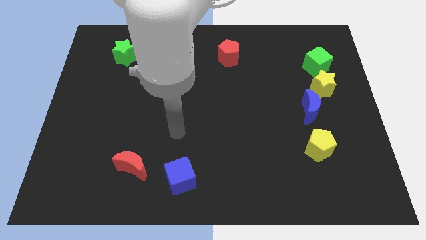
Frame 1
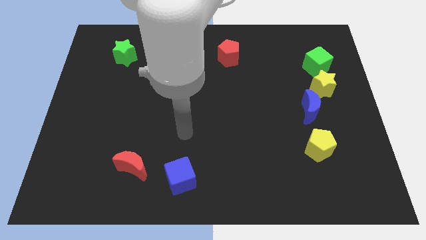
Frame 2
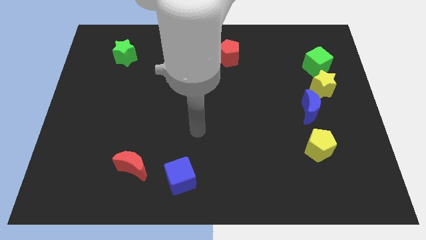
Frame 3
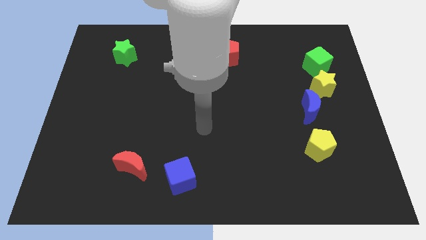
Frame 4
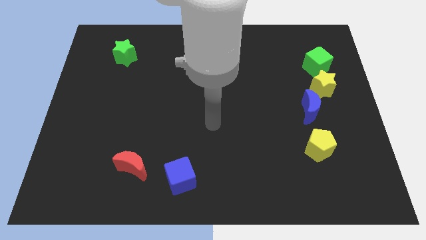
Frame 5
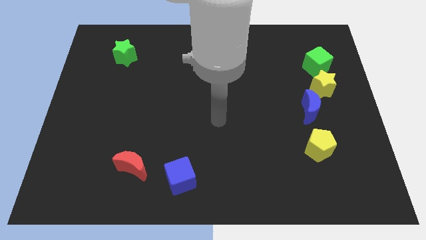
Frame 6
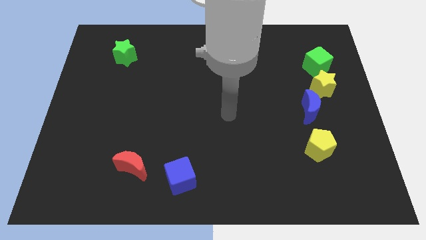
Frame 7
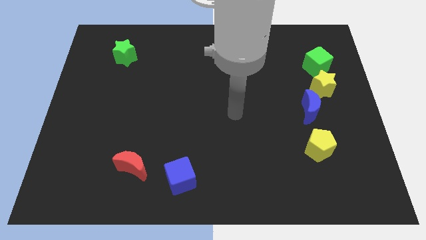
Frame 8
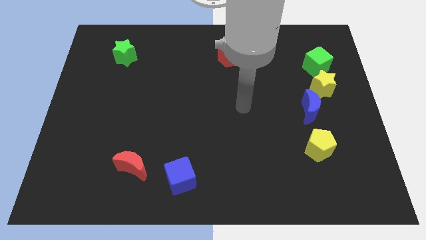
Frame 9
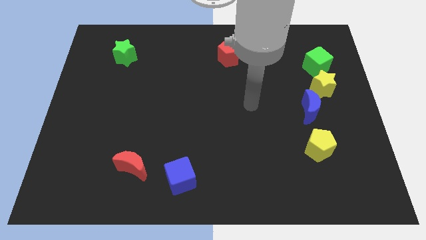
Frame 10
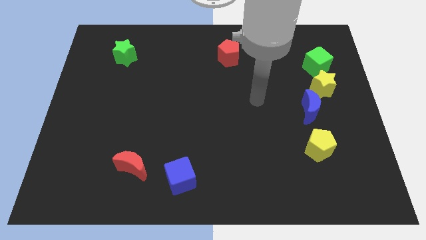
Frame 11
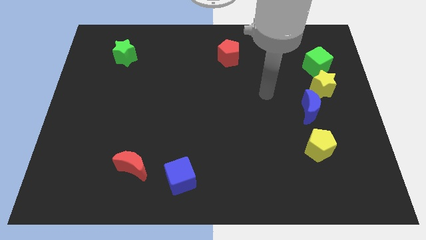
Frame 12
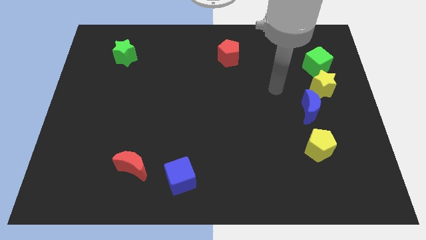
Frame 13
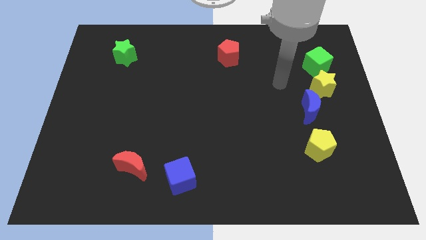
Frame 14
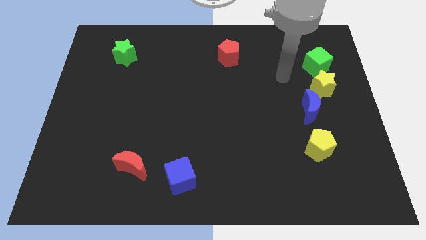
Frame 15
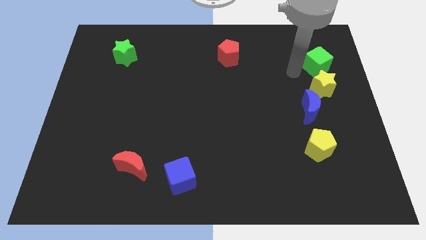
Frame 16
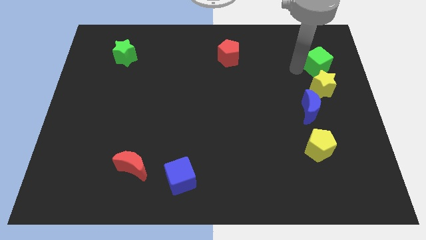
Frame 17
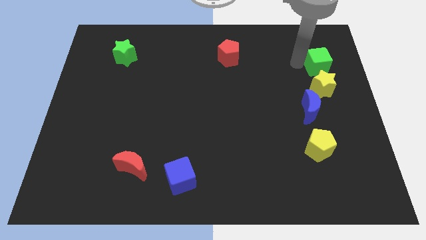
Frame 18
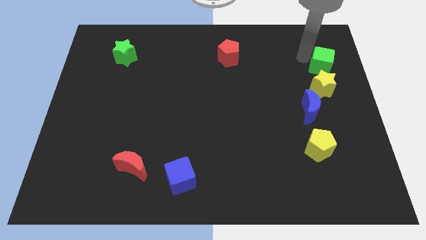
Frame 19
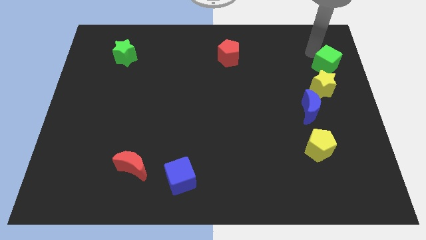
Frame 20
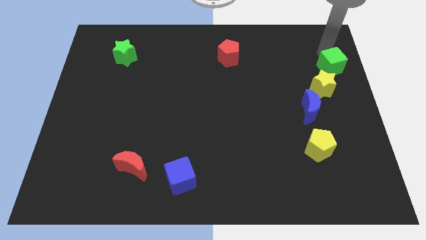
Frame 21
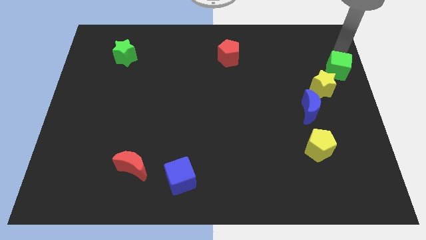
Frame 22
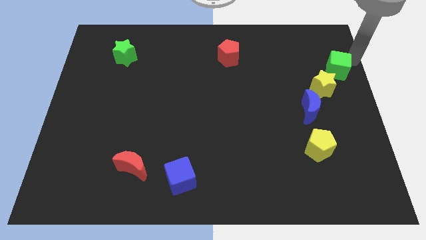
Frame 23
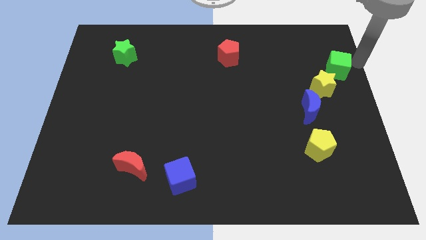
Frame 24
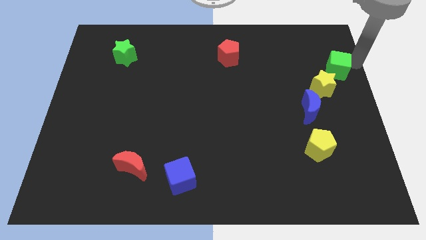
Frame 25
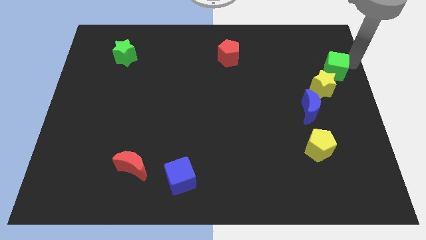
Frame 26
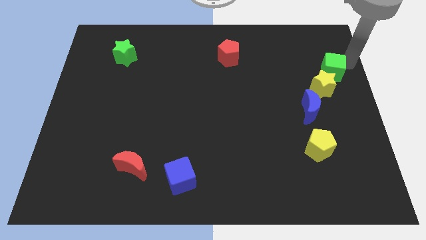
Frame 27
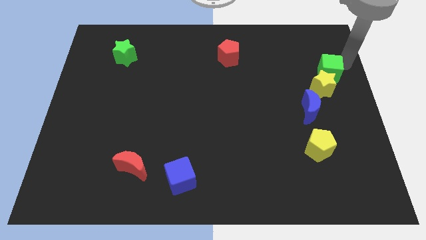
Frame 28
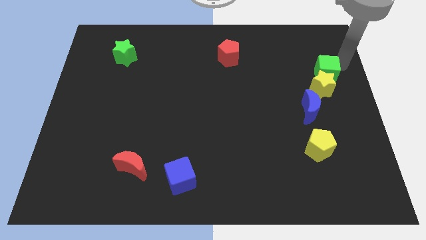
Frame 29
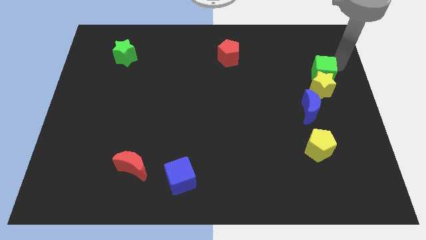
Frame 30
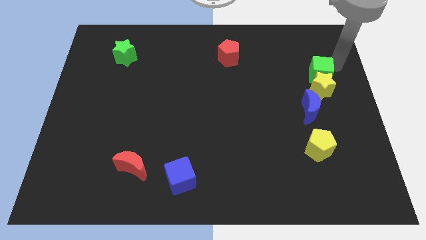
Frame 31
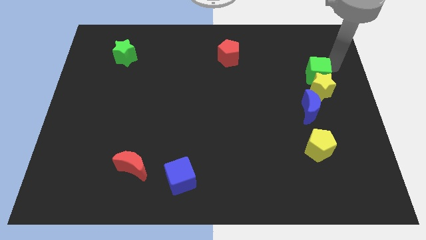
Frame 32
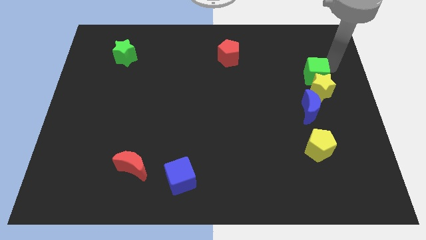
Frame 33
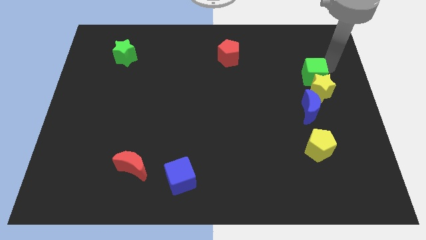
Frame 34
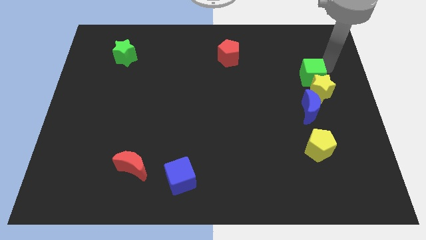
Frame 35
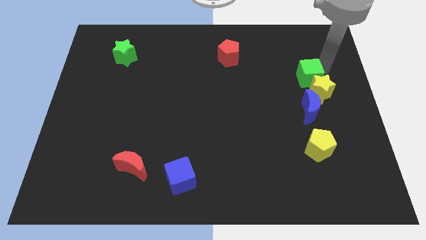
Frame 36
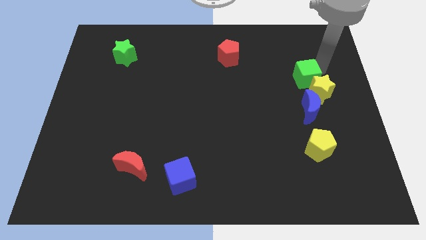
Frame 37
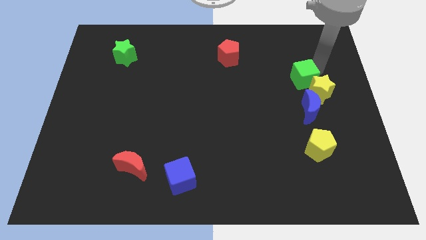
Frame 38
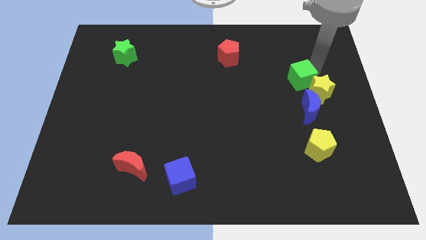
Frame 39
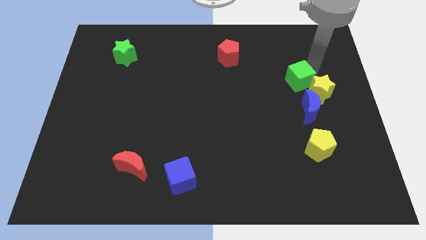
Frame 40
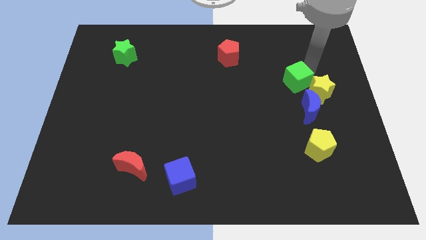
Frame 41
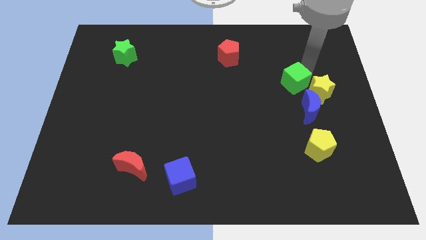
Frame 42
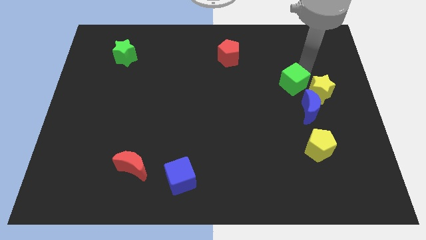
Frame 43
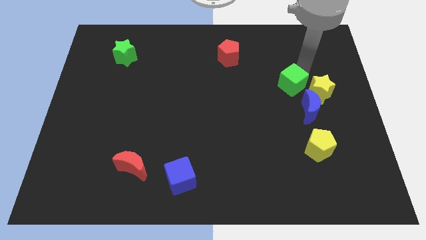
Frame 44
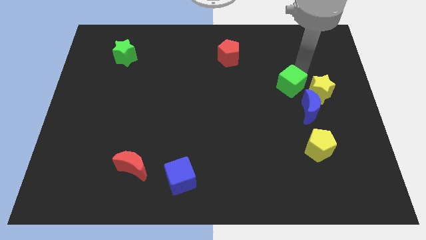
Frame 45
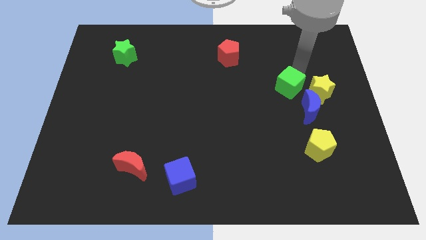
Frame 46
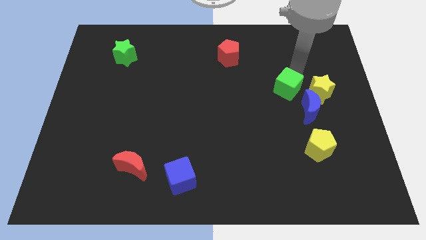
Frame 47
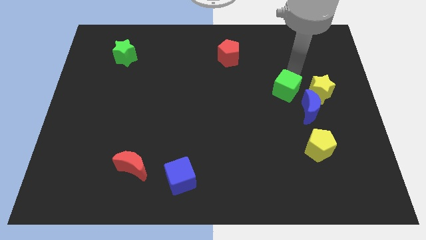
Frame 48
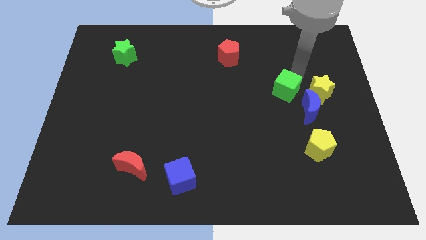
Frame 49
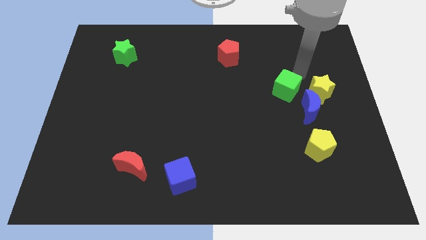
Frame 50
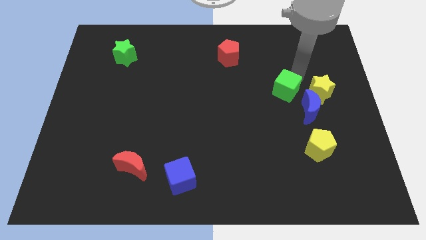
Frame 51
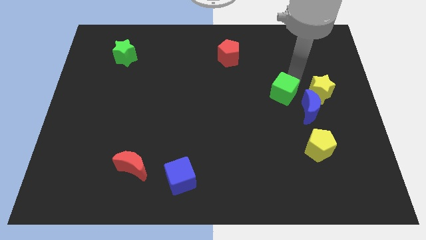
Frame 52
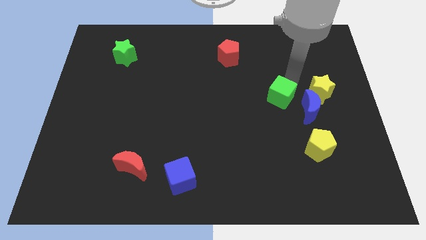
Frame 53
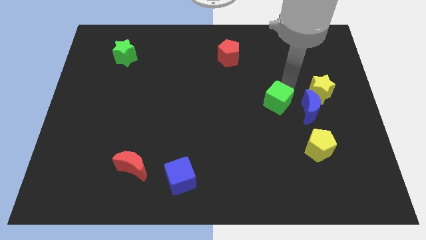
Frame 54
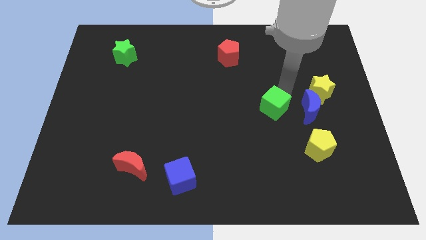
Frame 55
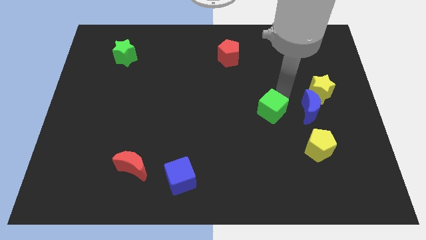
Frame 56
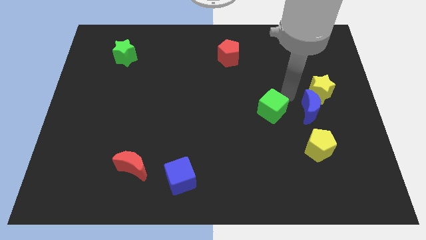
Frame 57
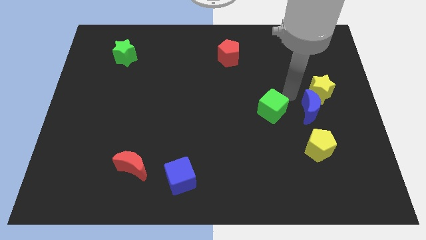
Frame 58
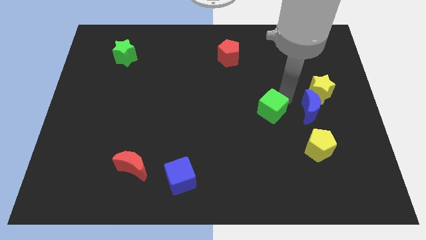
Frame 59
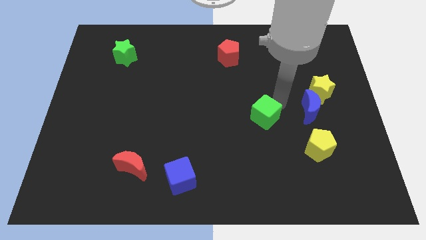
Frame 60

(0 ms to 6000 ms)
move the green cube downwards and to the left diagonally

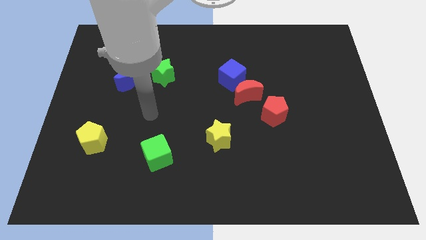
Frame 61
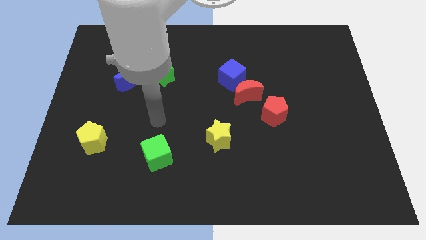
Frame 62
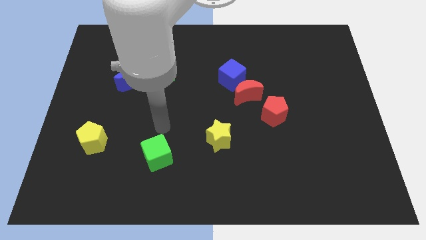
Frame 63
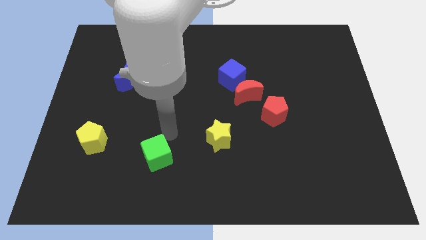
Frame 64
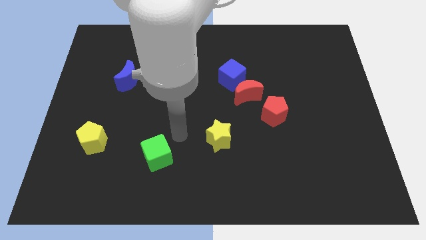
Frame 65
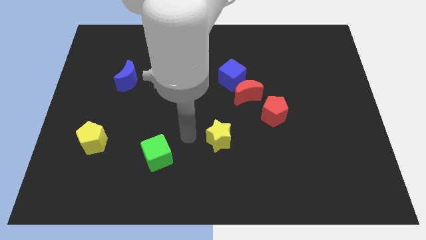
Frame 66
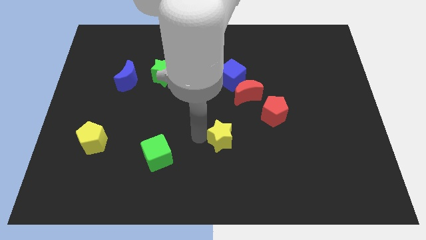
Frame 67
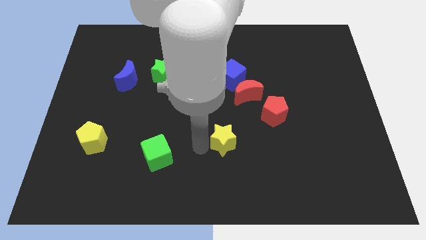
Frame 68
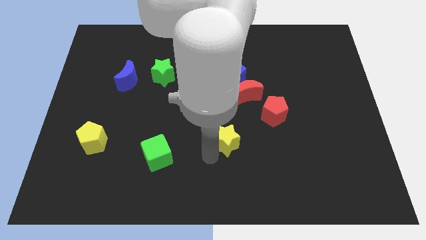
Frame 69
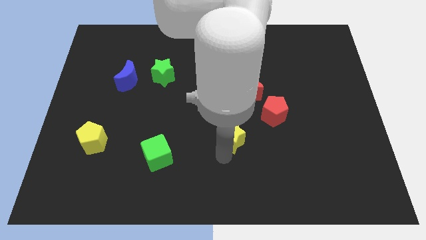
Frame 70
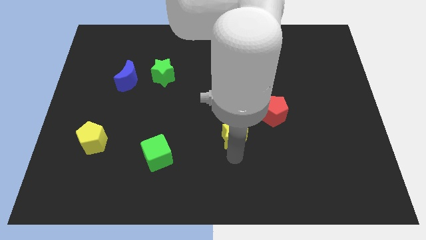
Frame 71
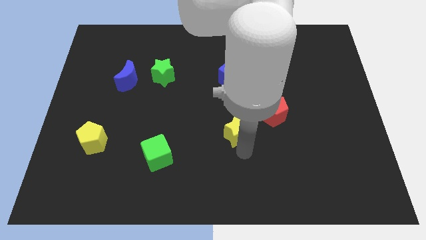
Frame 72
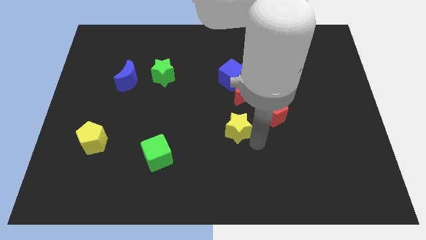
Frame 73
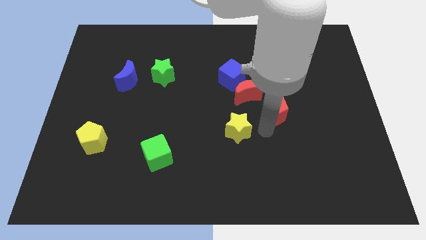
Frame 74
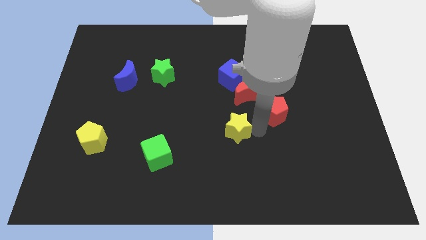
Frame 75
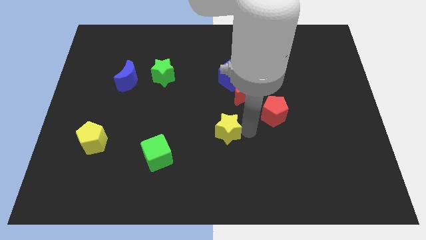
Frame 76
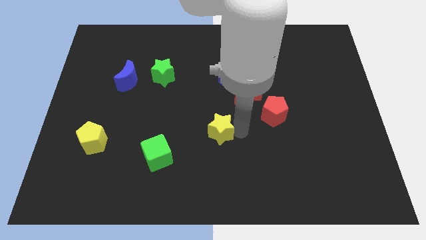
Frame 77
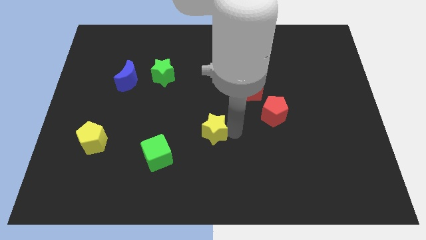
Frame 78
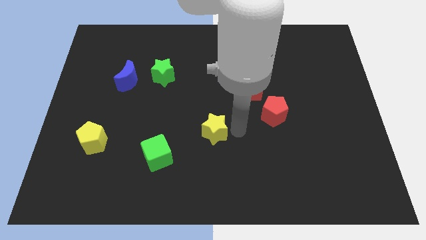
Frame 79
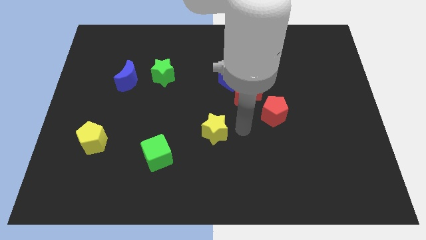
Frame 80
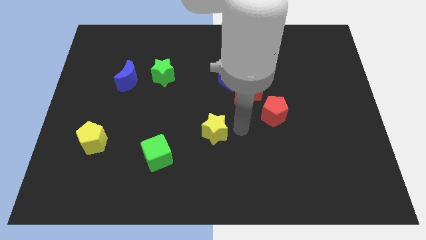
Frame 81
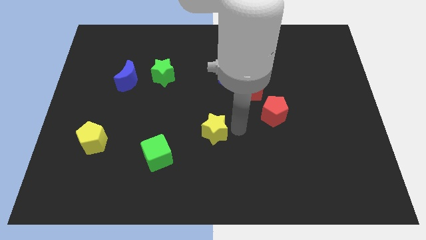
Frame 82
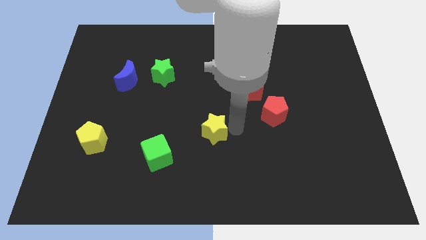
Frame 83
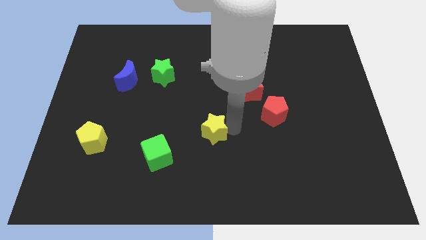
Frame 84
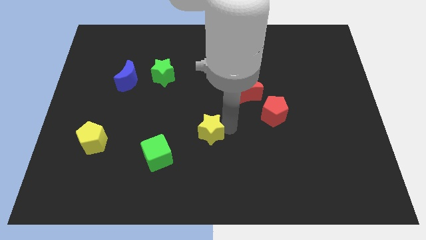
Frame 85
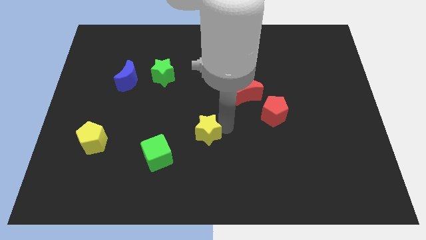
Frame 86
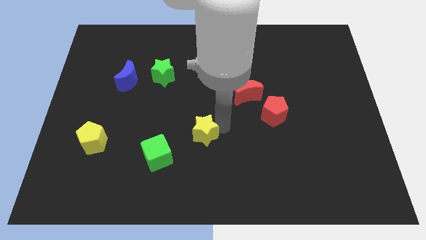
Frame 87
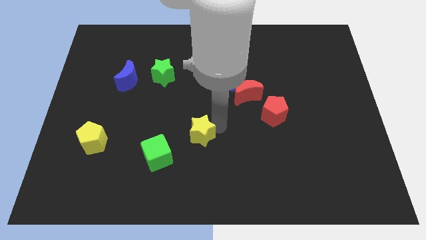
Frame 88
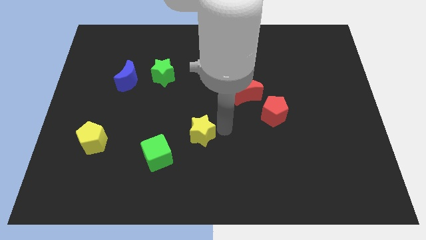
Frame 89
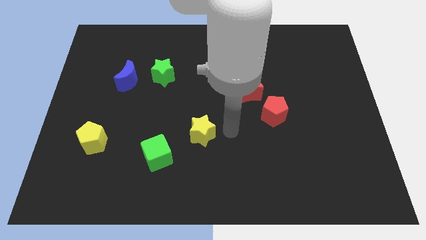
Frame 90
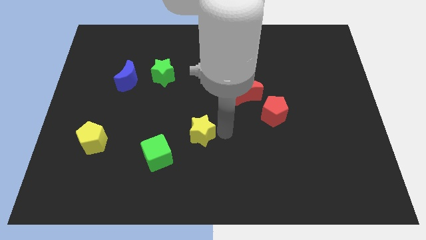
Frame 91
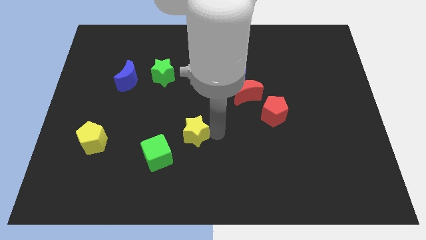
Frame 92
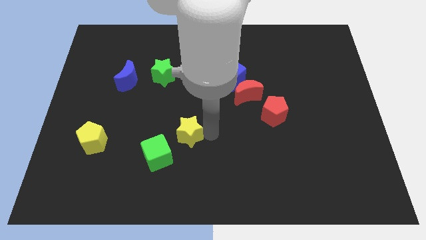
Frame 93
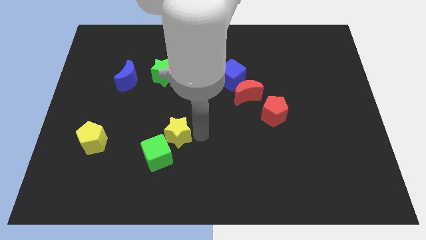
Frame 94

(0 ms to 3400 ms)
push the yellow star a little to the left
